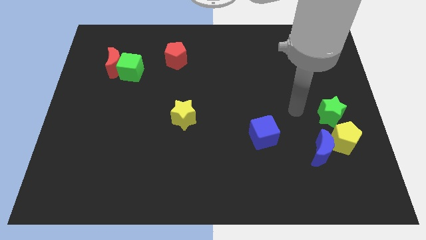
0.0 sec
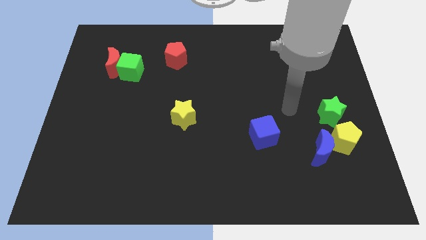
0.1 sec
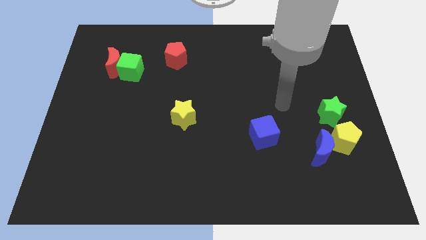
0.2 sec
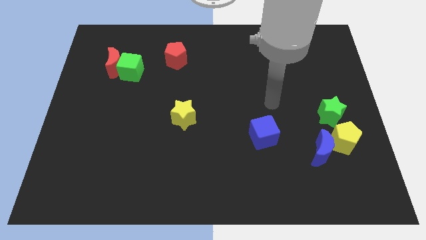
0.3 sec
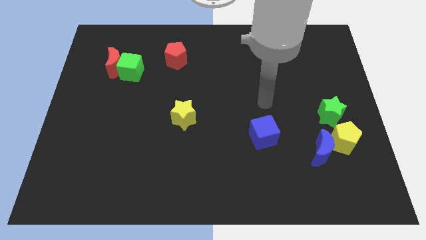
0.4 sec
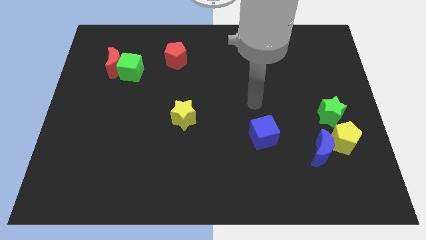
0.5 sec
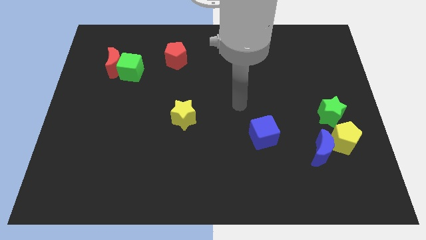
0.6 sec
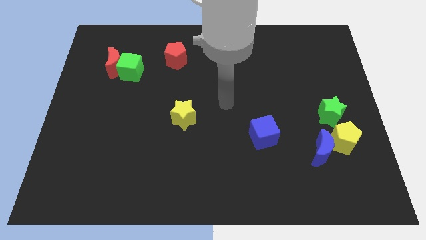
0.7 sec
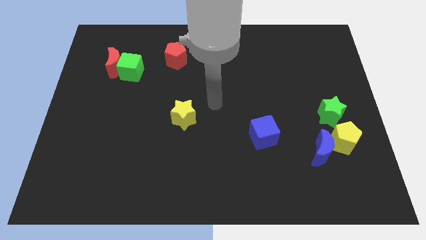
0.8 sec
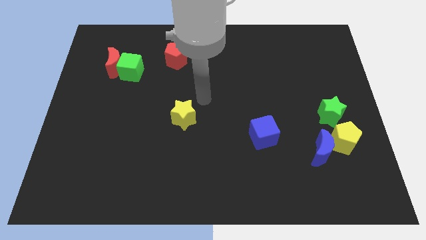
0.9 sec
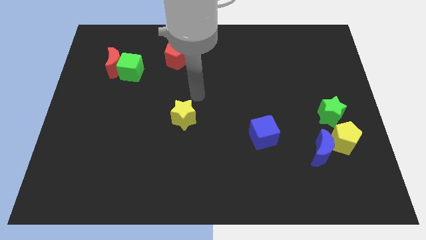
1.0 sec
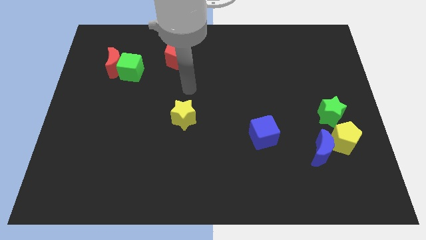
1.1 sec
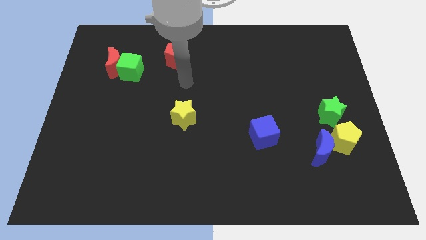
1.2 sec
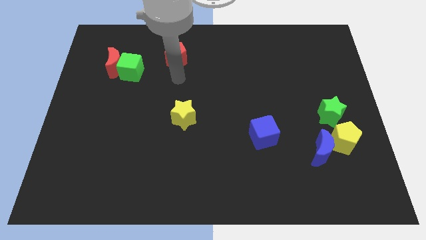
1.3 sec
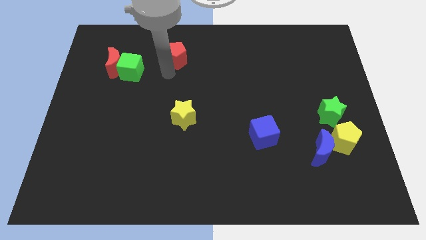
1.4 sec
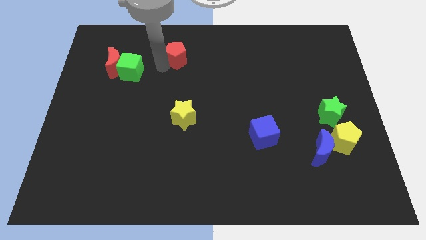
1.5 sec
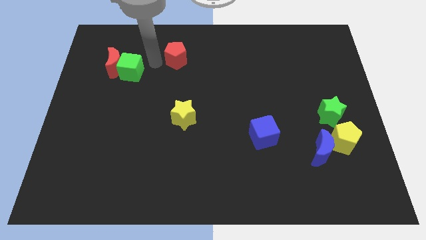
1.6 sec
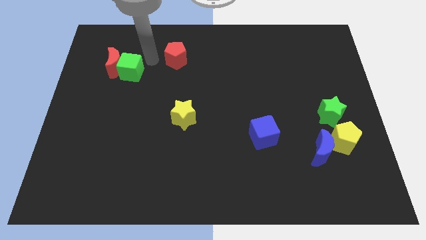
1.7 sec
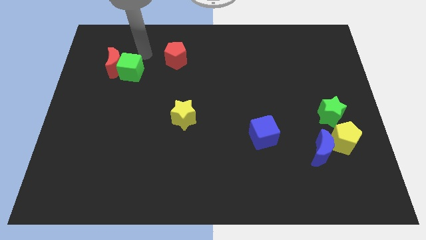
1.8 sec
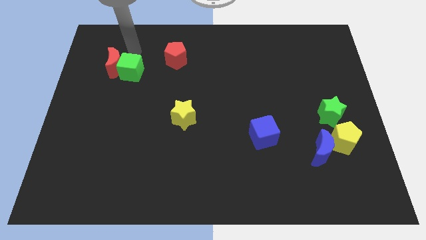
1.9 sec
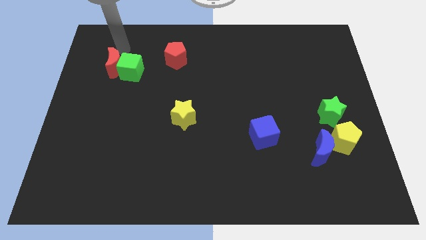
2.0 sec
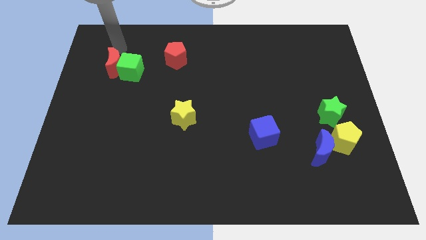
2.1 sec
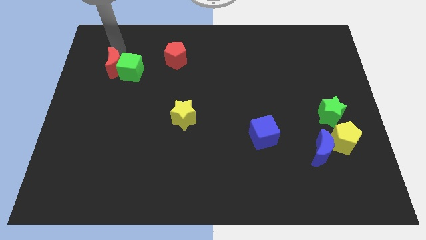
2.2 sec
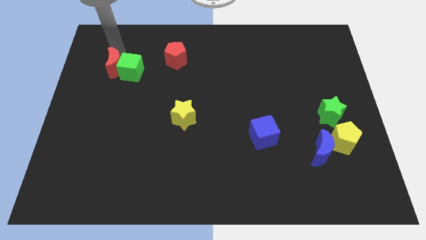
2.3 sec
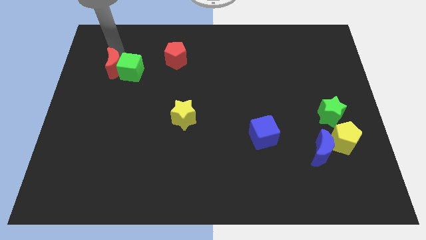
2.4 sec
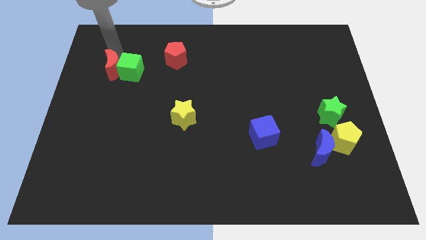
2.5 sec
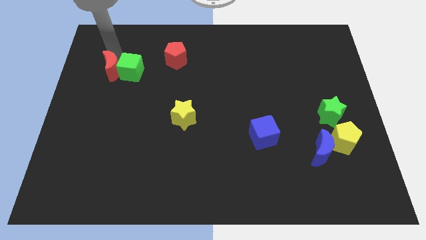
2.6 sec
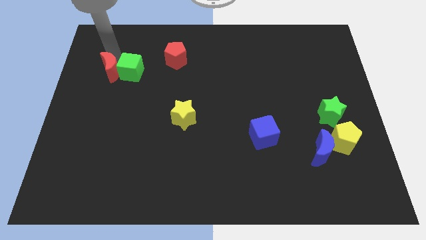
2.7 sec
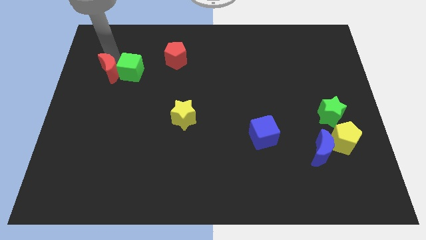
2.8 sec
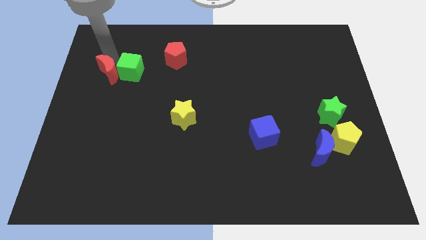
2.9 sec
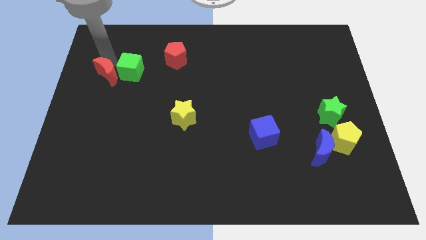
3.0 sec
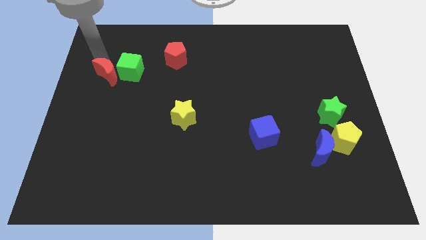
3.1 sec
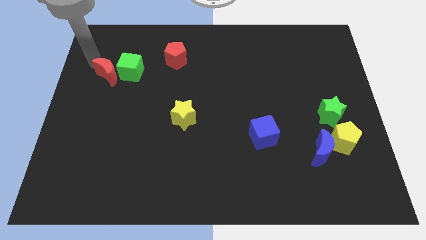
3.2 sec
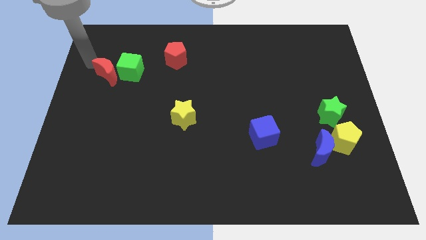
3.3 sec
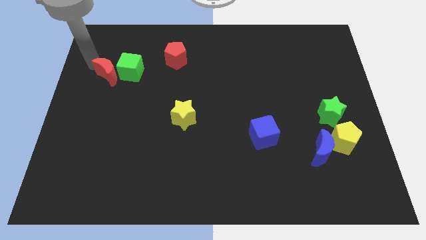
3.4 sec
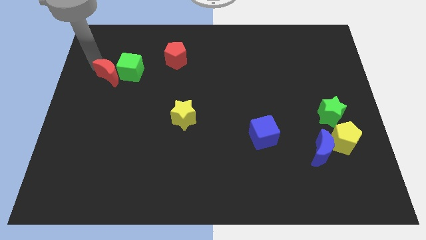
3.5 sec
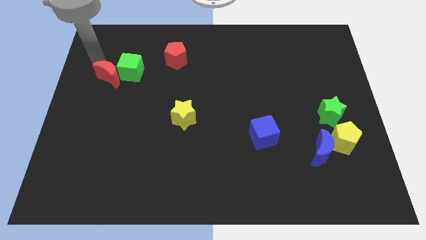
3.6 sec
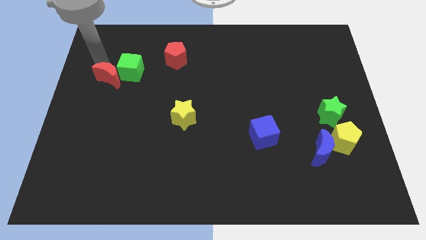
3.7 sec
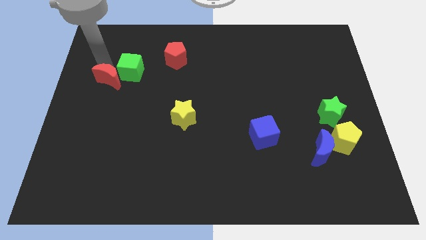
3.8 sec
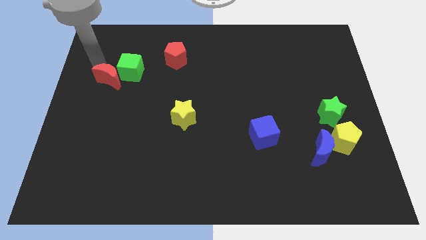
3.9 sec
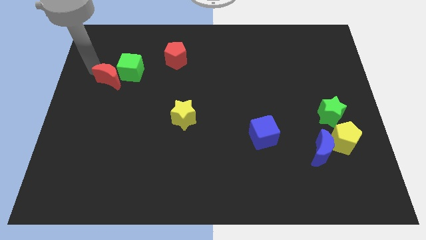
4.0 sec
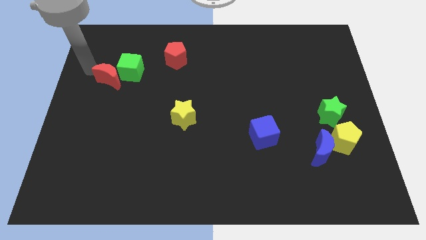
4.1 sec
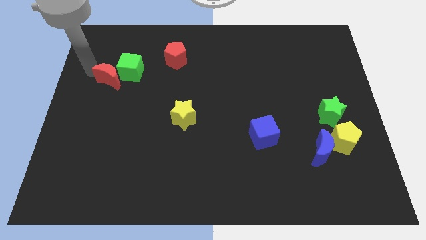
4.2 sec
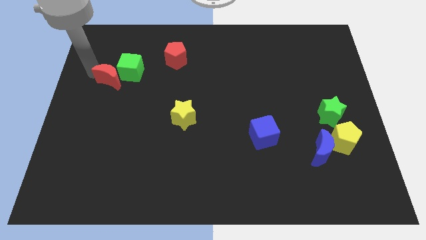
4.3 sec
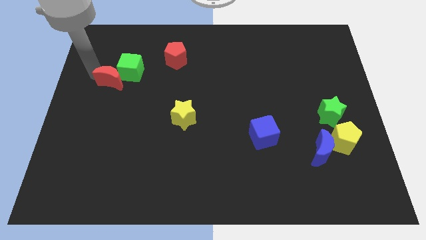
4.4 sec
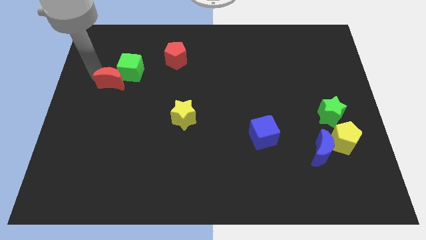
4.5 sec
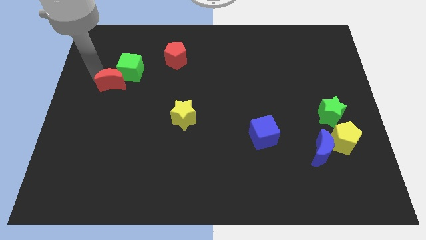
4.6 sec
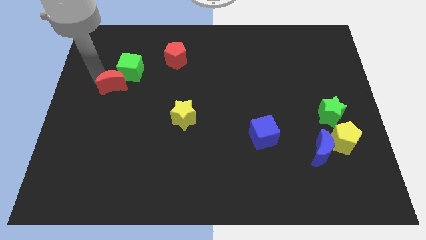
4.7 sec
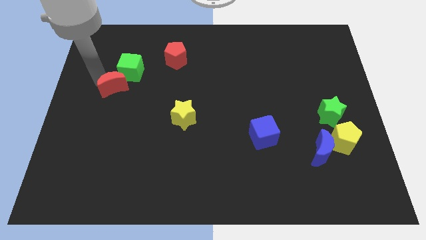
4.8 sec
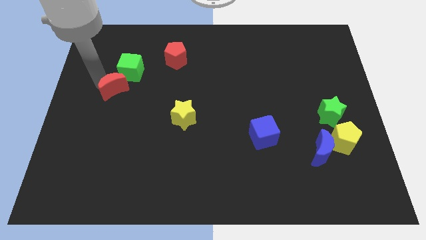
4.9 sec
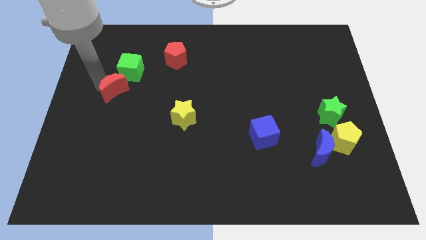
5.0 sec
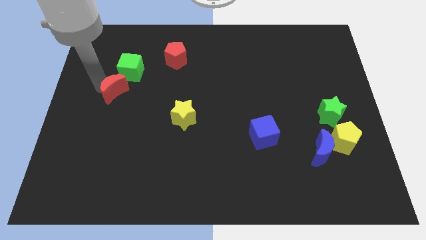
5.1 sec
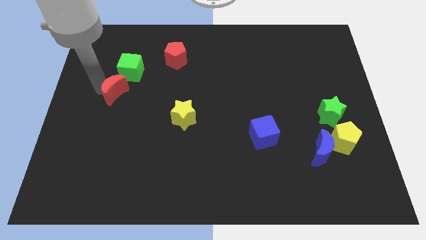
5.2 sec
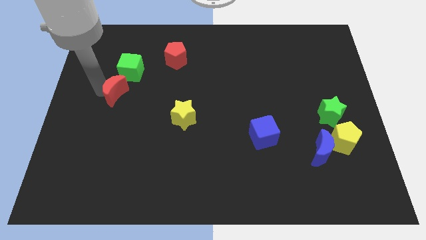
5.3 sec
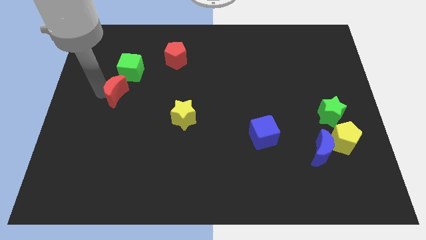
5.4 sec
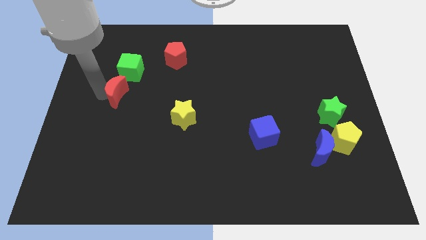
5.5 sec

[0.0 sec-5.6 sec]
slightly move the red moon down and to the right diagonally

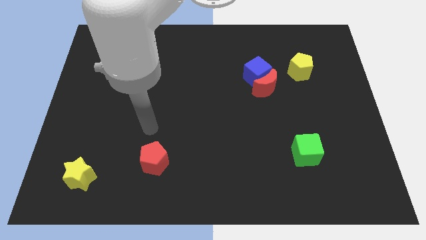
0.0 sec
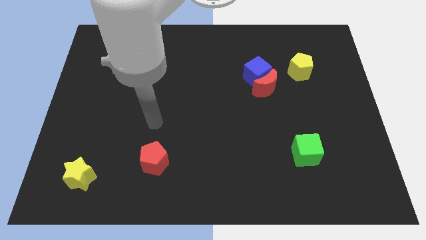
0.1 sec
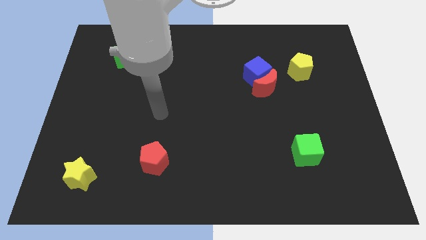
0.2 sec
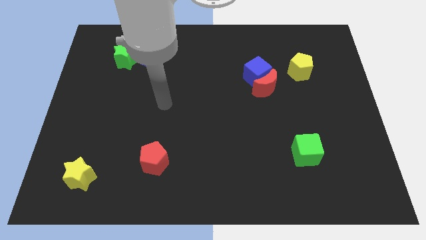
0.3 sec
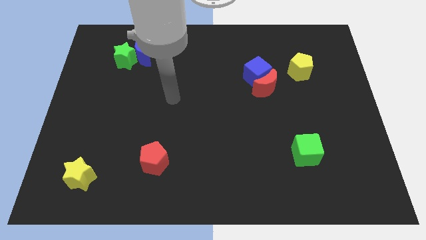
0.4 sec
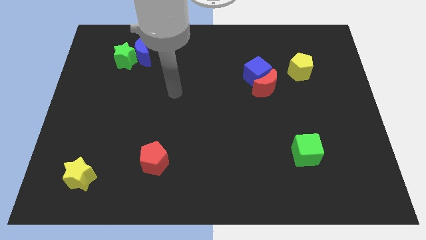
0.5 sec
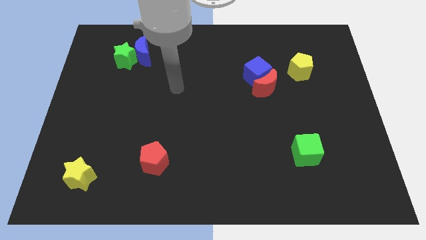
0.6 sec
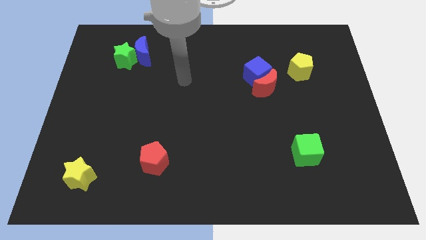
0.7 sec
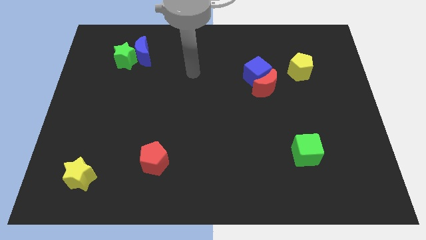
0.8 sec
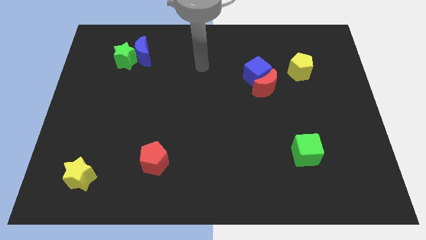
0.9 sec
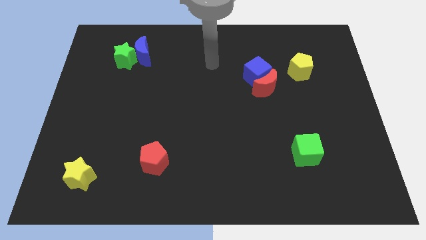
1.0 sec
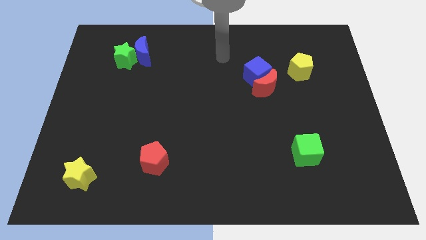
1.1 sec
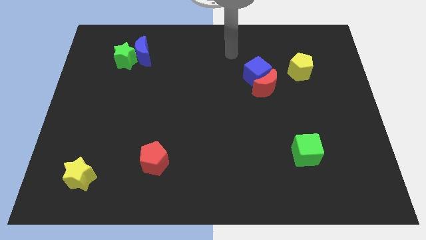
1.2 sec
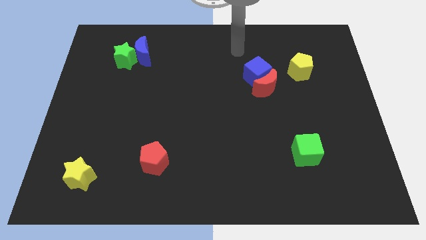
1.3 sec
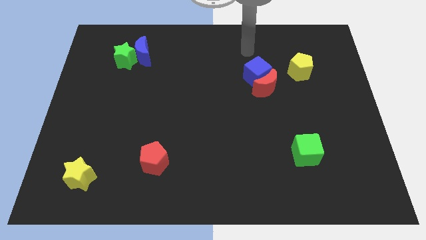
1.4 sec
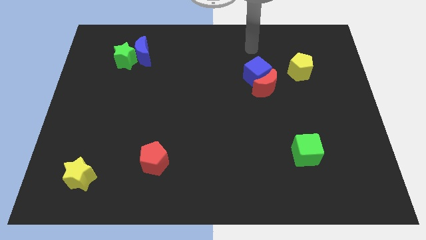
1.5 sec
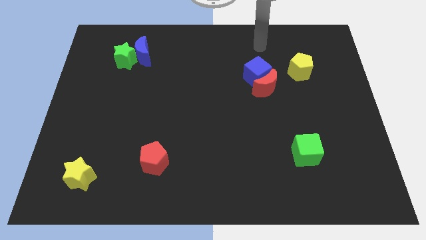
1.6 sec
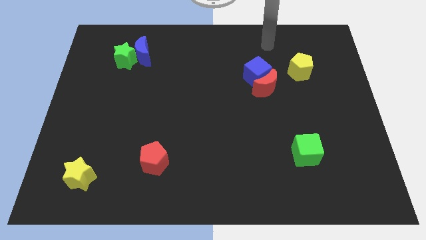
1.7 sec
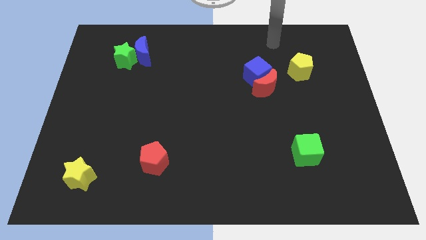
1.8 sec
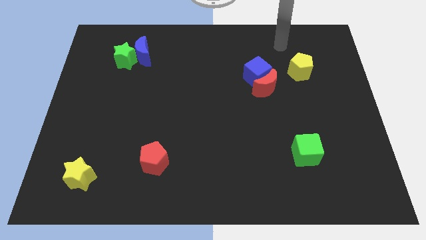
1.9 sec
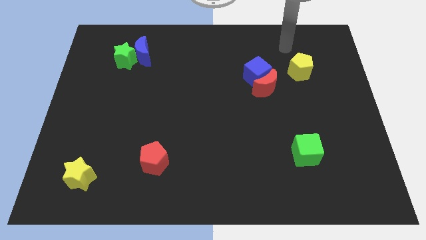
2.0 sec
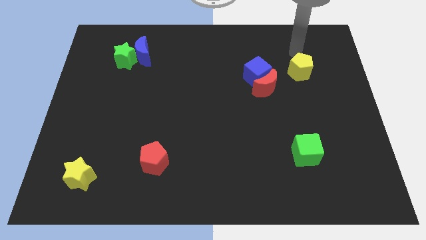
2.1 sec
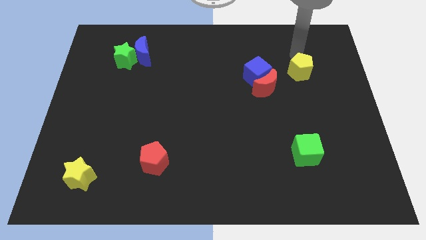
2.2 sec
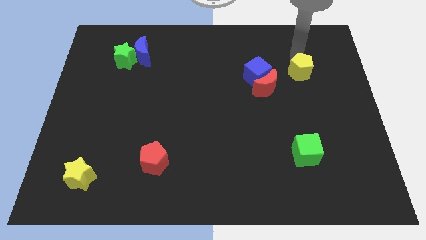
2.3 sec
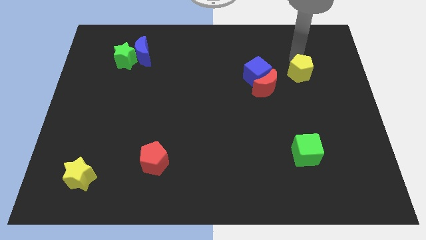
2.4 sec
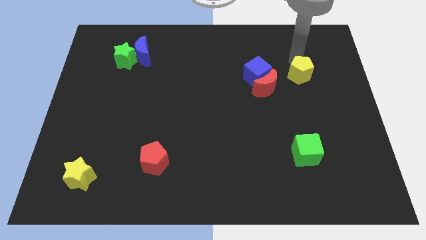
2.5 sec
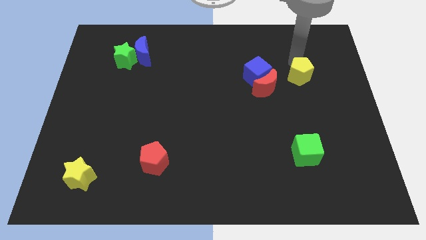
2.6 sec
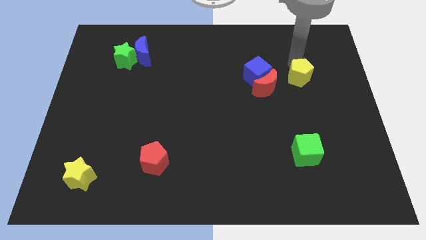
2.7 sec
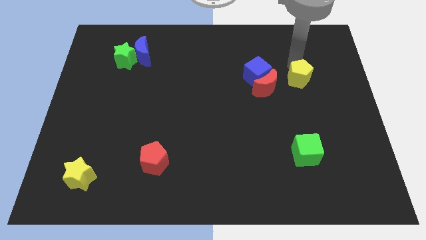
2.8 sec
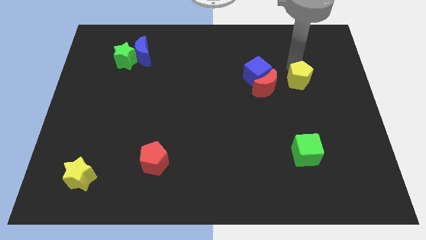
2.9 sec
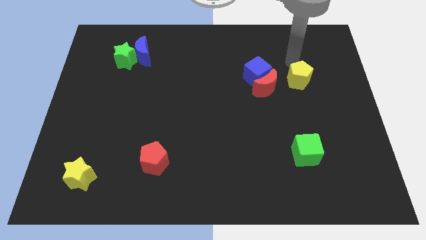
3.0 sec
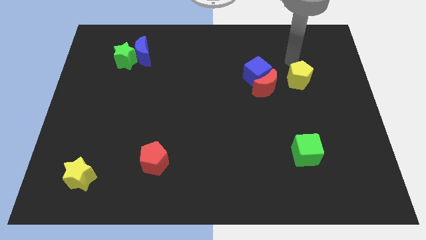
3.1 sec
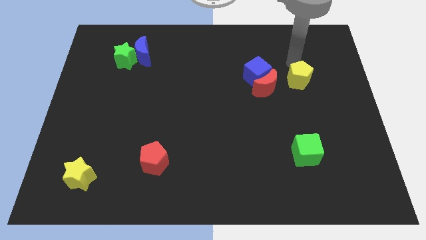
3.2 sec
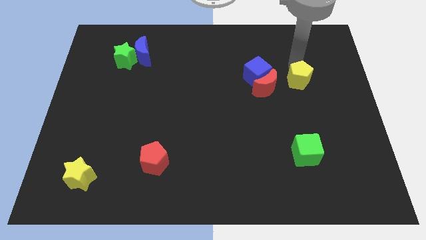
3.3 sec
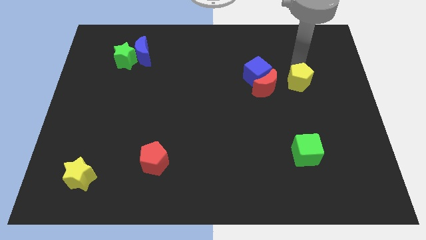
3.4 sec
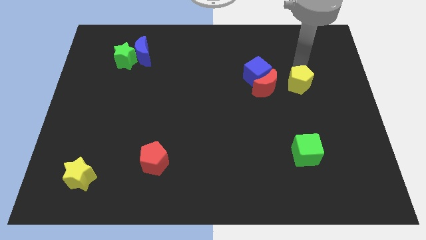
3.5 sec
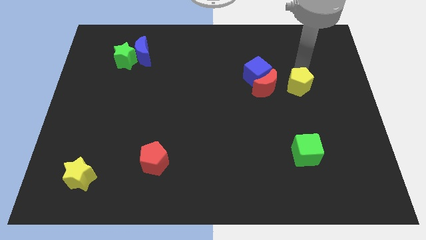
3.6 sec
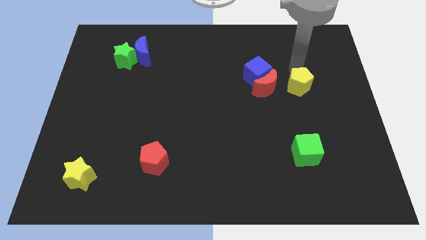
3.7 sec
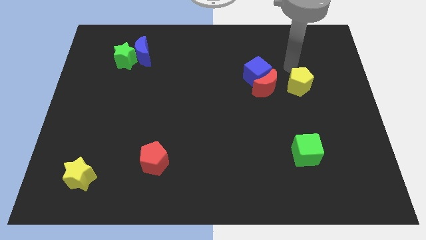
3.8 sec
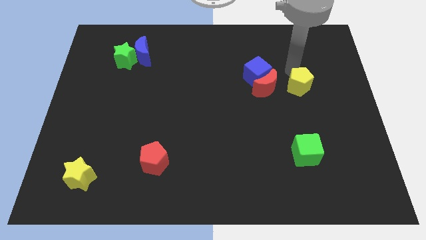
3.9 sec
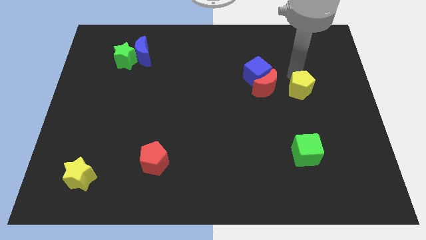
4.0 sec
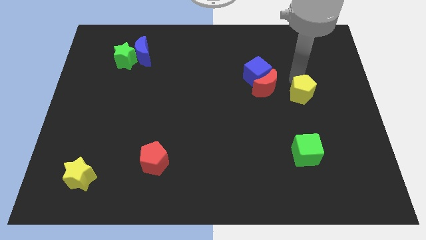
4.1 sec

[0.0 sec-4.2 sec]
slightly move the yellow pentagon down
